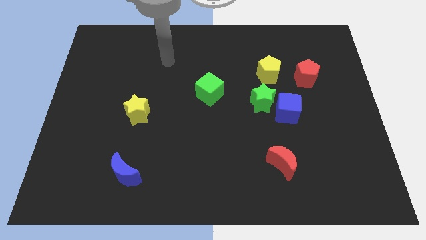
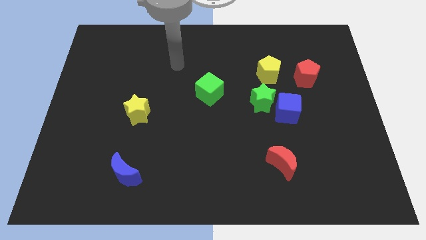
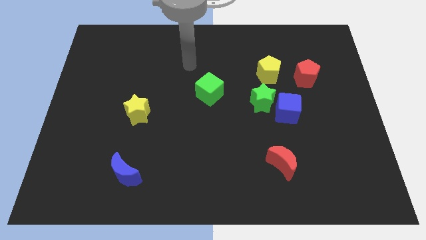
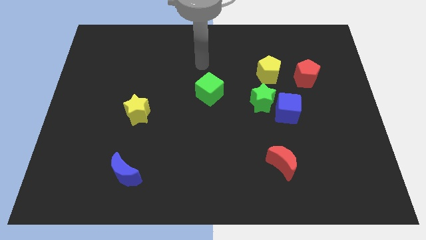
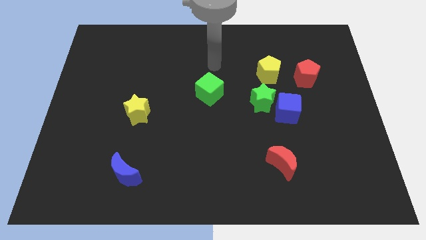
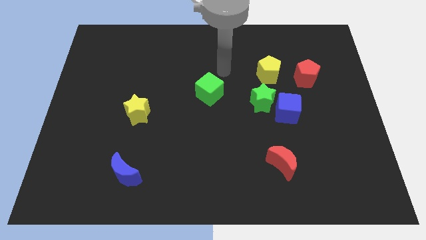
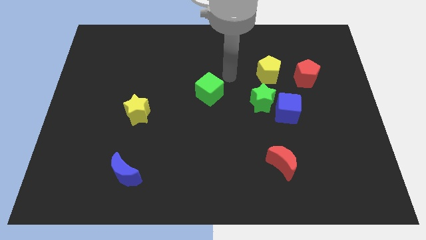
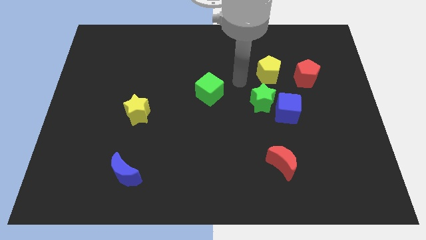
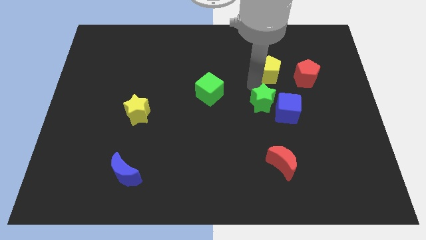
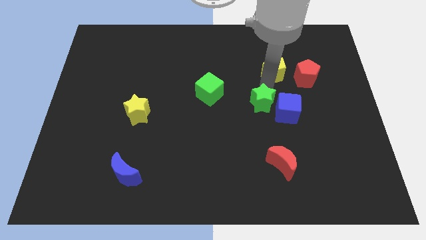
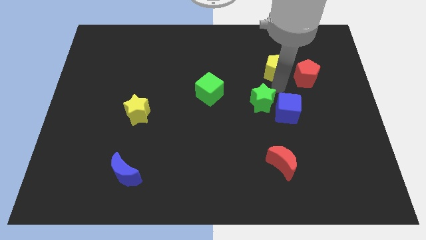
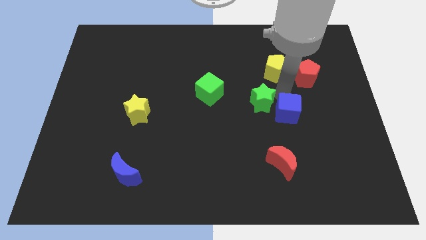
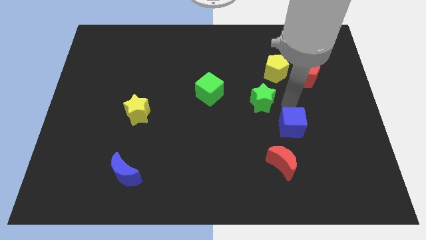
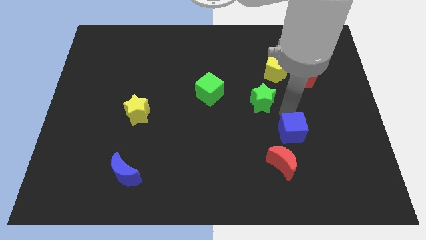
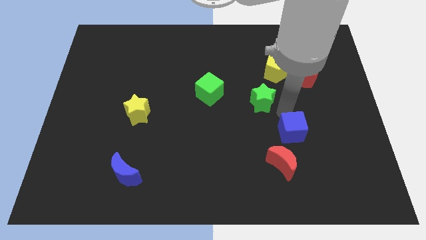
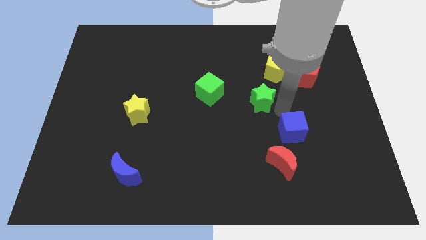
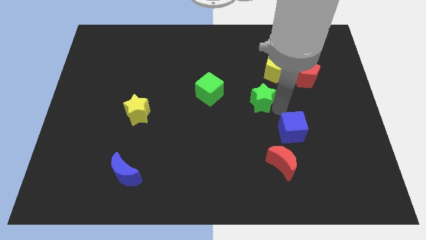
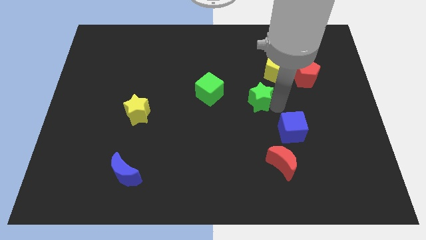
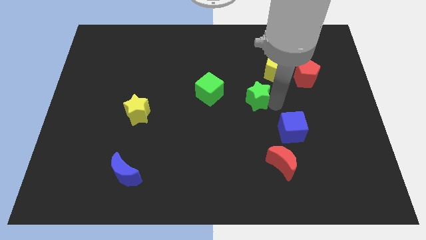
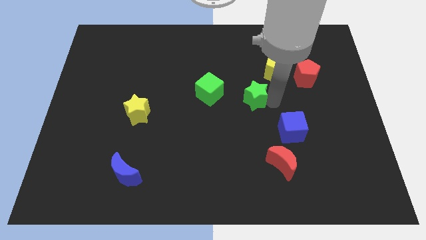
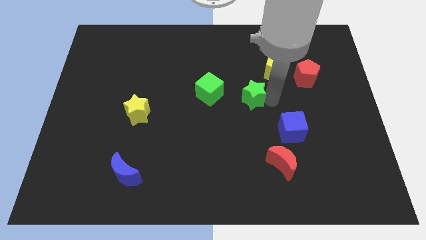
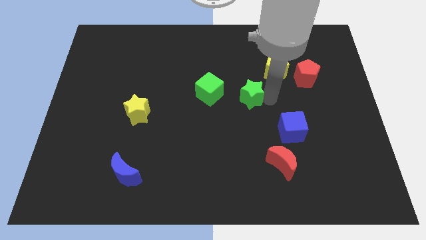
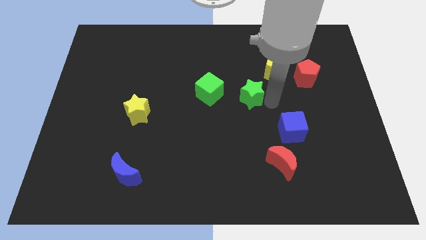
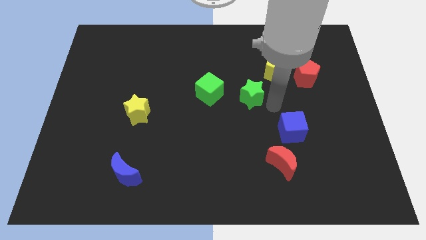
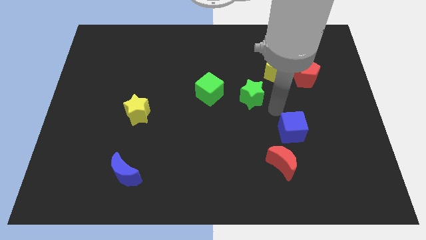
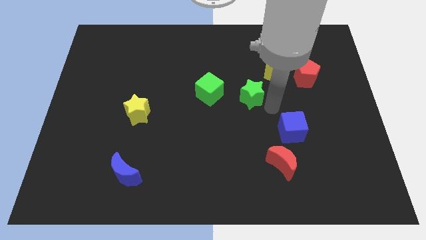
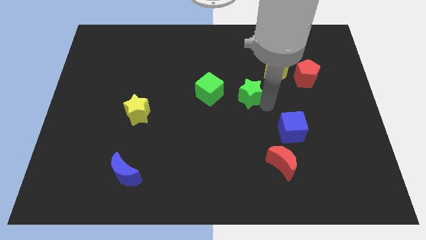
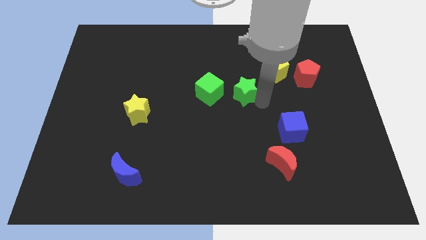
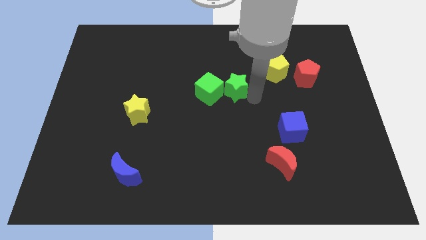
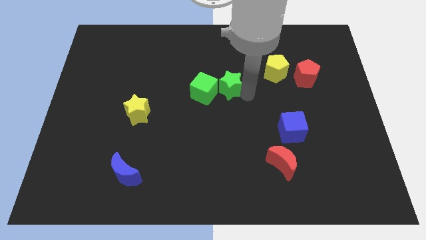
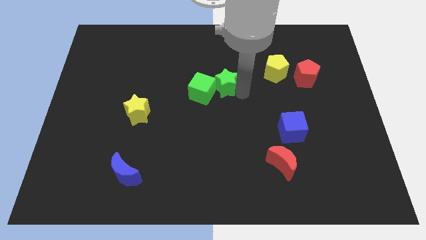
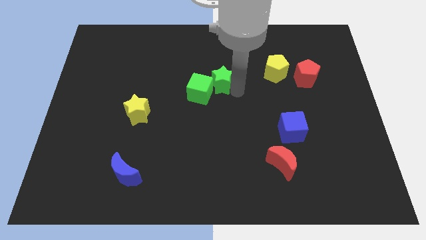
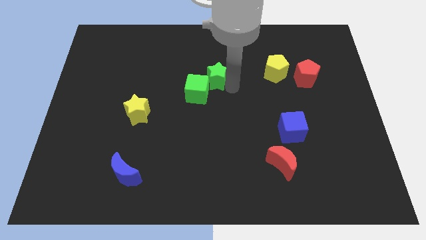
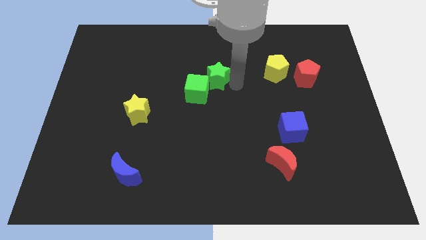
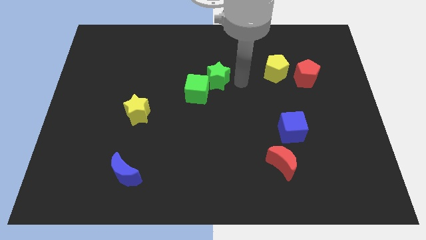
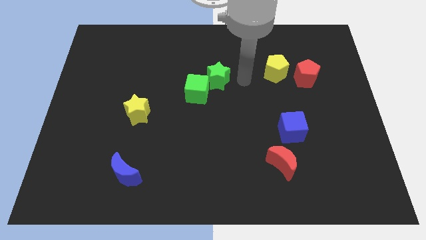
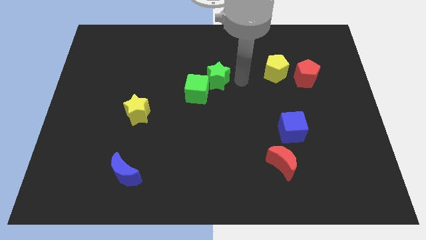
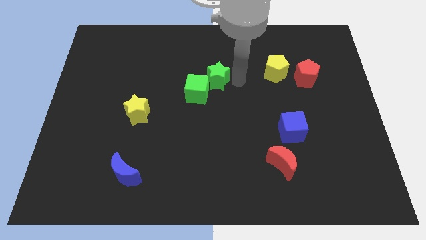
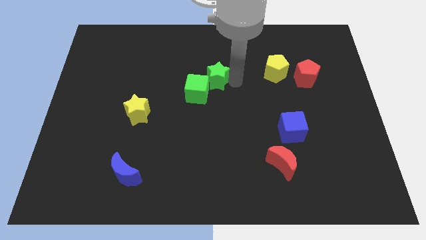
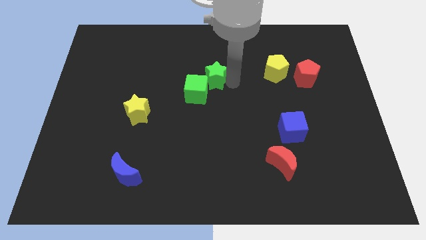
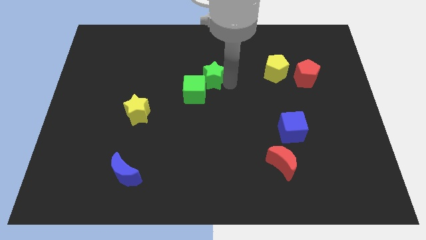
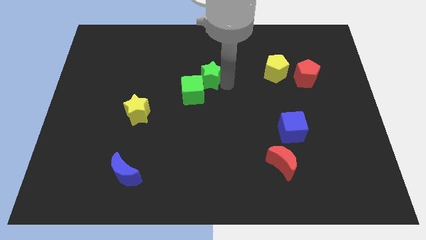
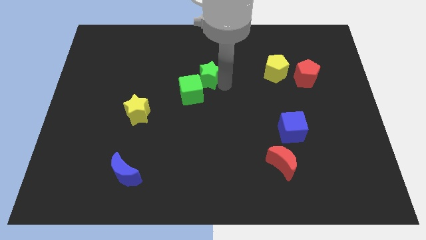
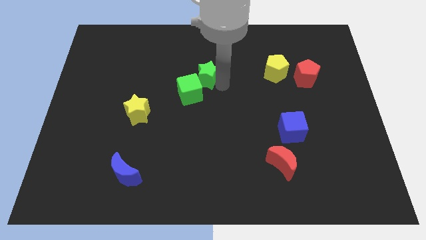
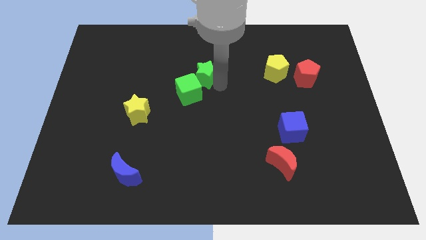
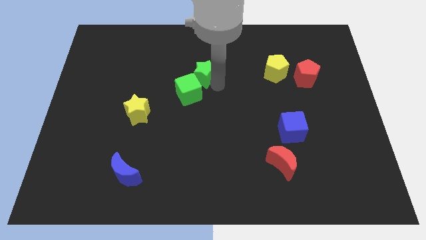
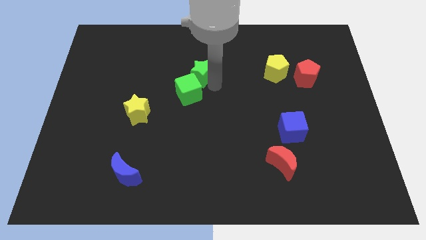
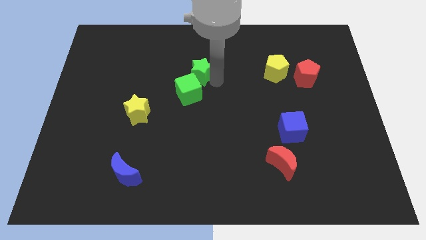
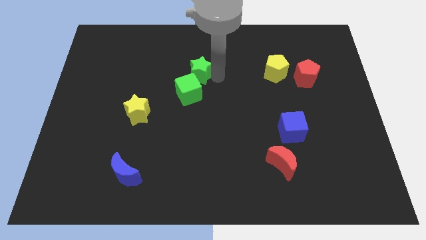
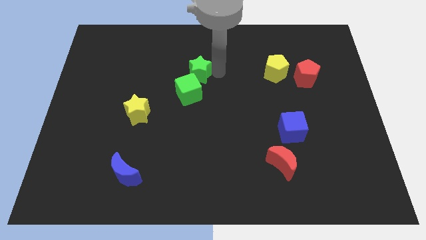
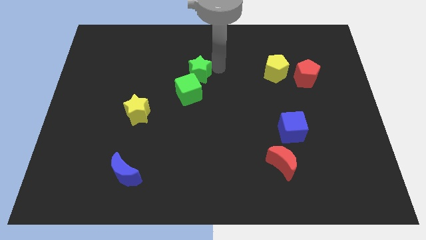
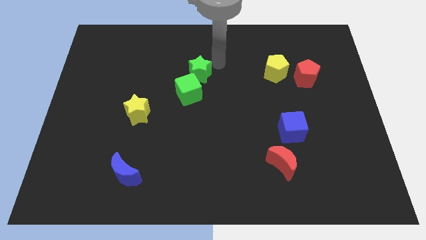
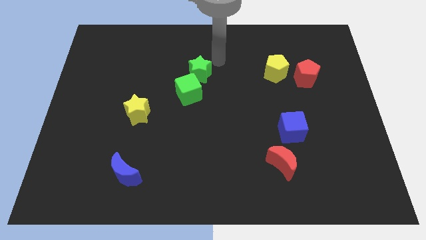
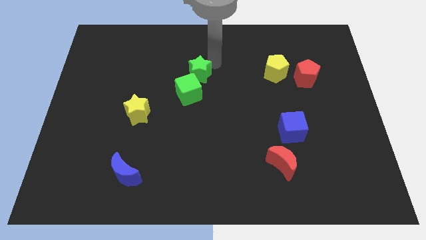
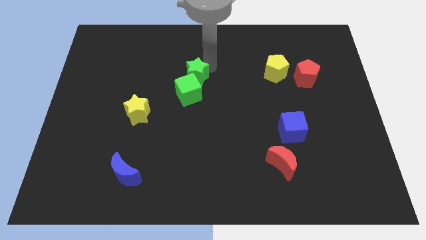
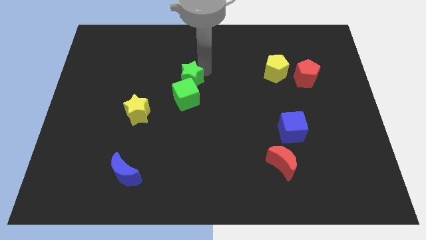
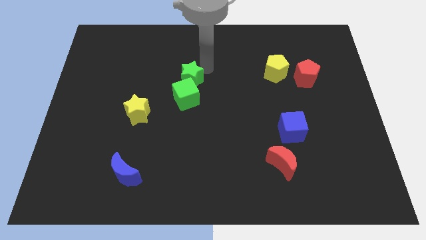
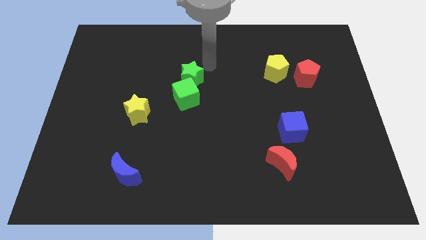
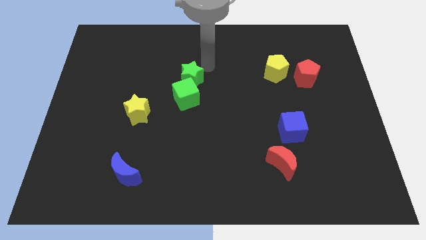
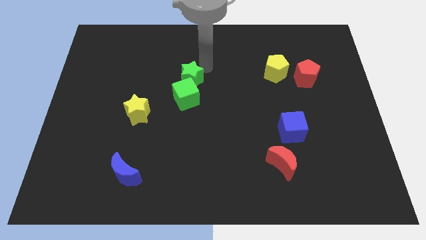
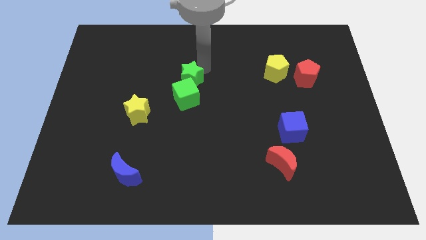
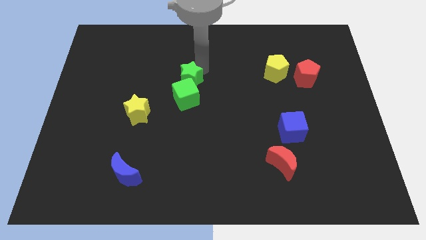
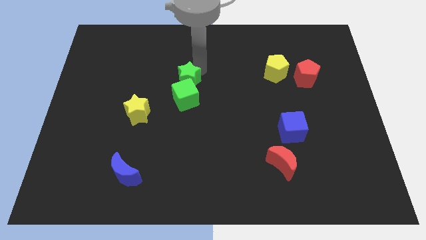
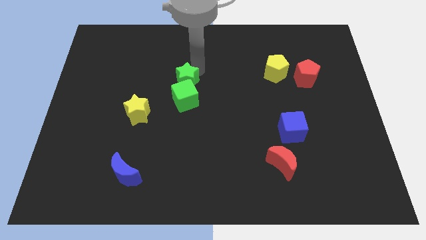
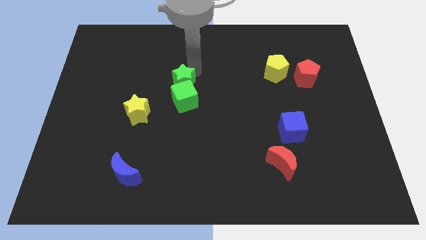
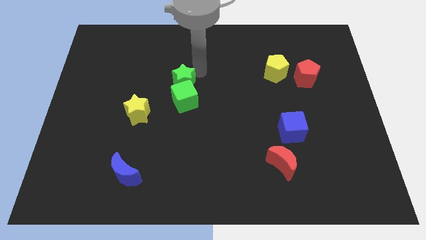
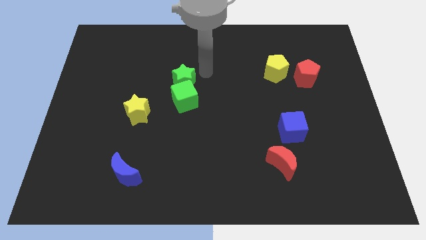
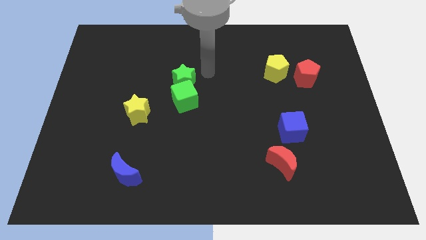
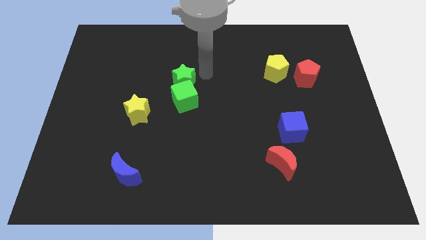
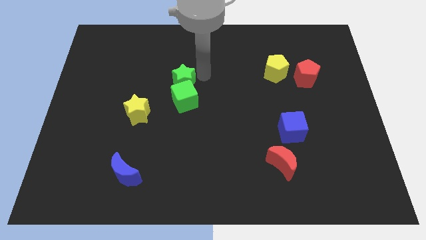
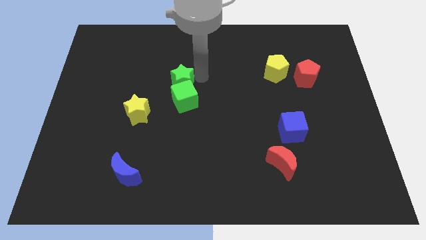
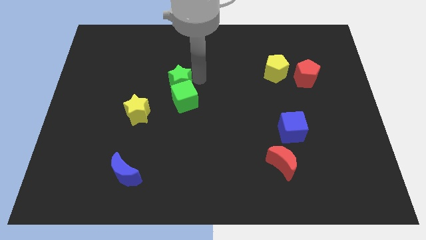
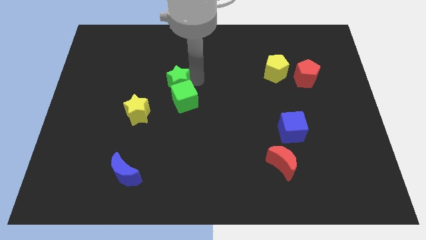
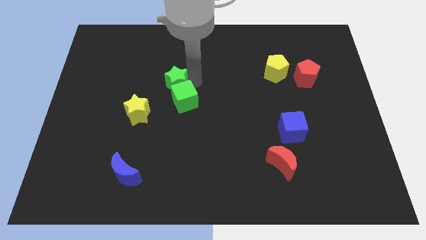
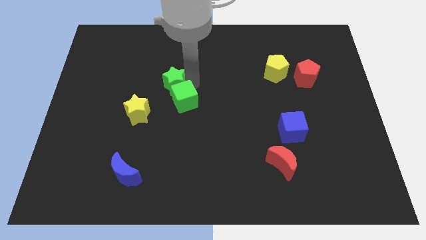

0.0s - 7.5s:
push the green star to the left

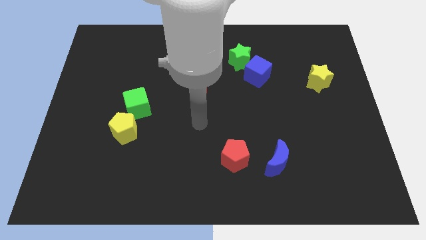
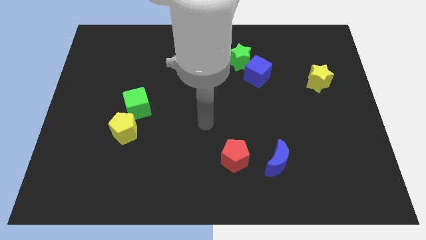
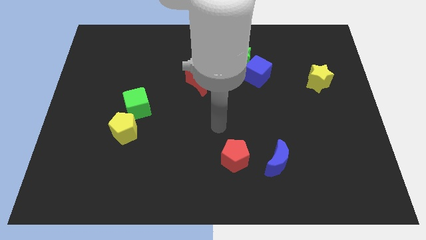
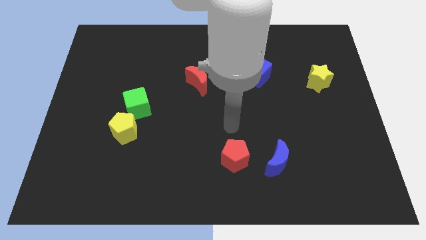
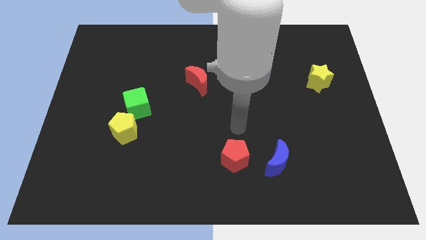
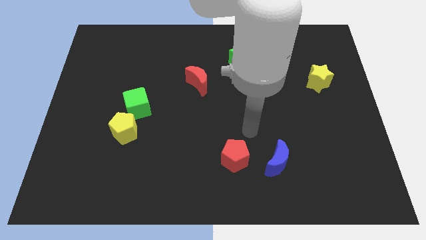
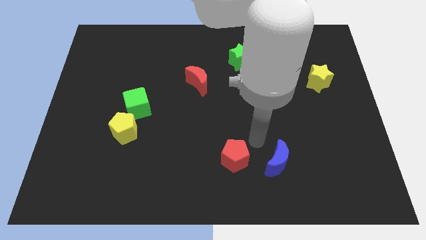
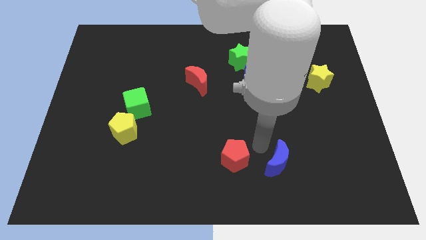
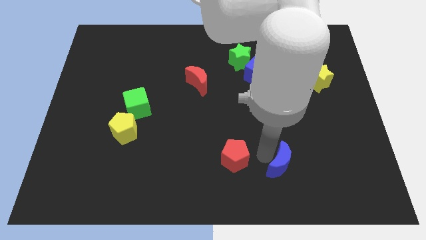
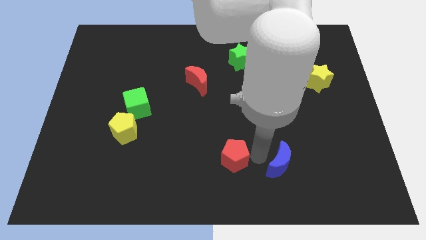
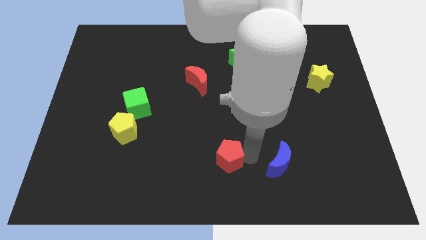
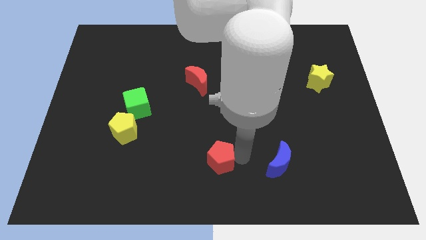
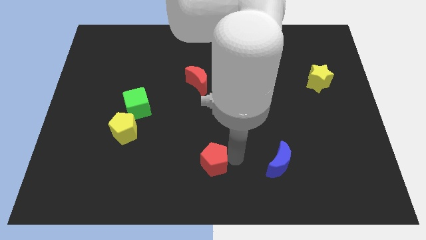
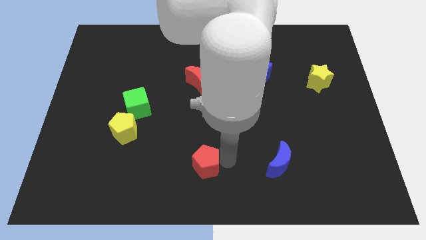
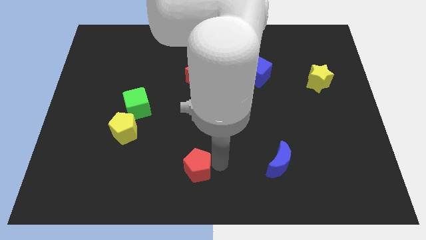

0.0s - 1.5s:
push the red pentagon a little bit left
